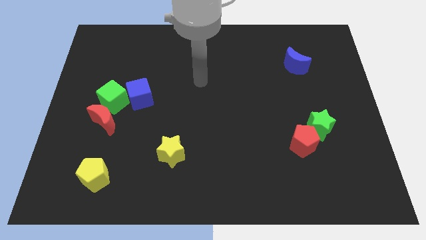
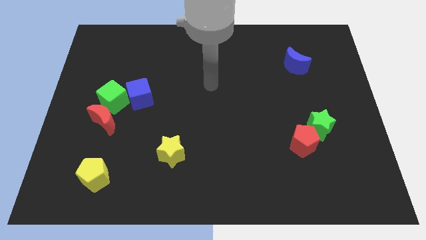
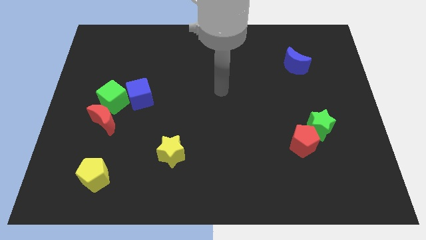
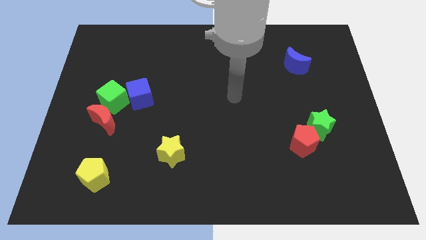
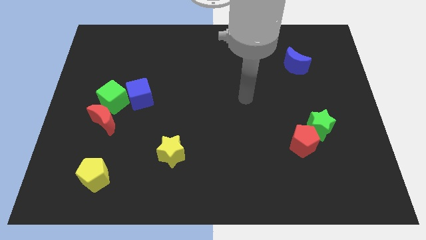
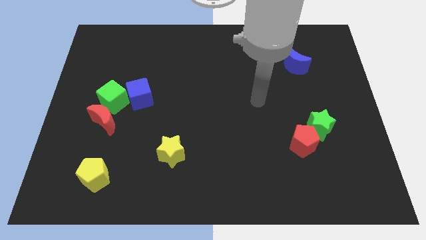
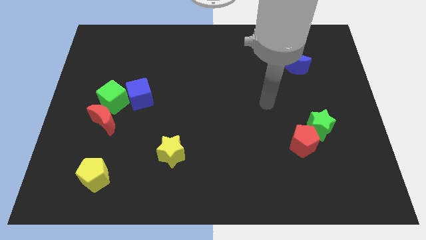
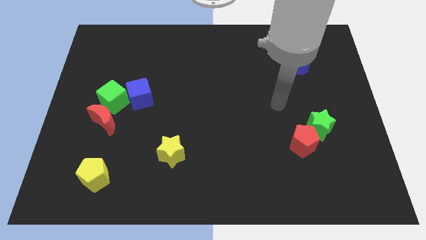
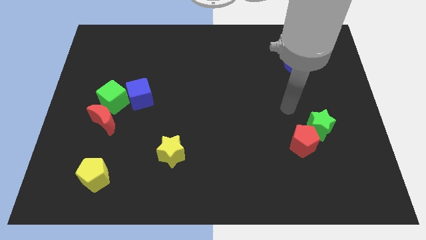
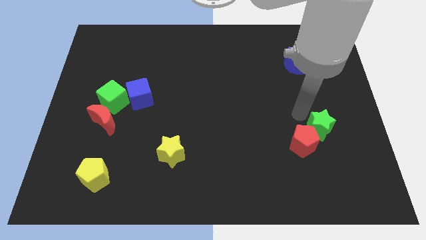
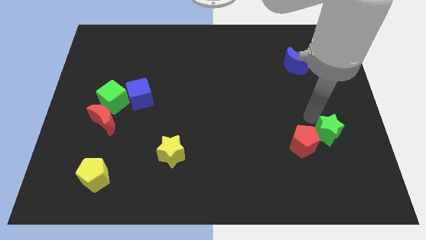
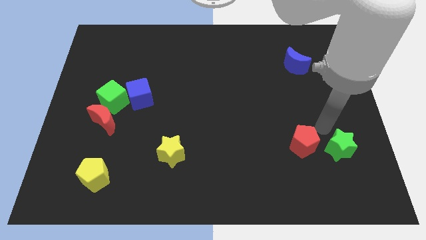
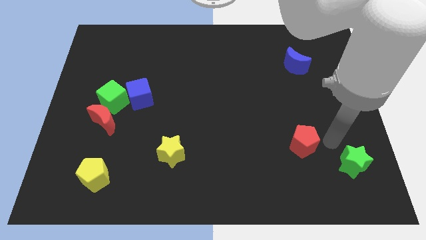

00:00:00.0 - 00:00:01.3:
pull the red pentagon apart from the green star

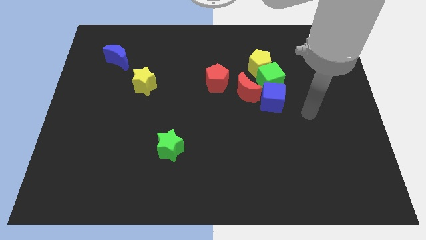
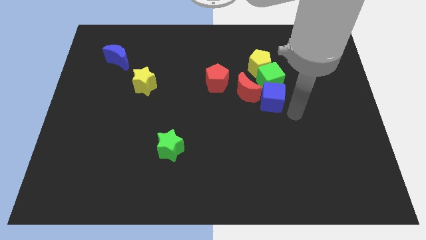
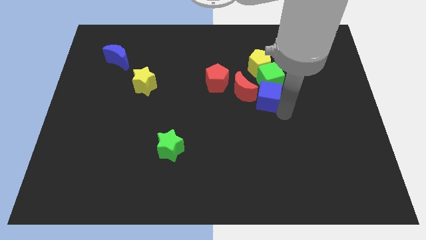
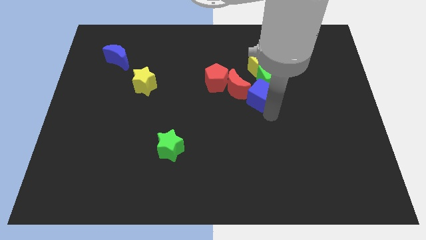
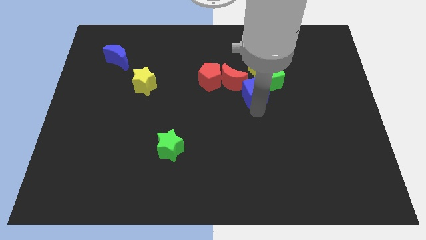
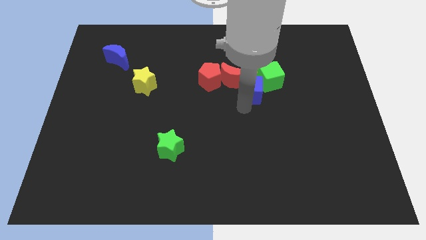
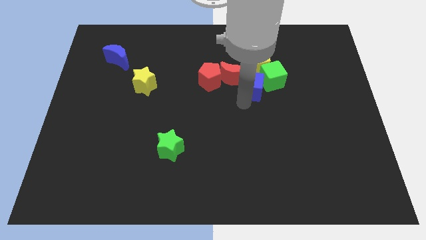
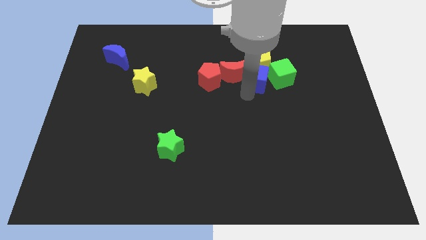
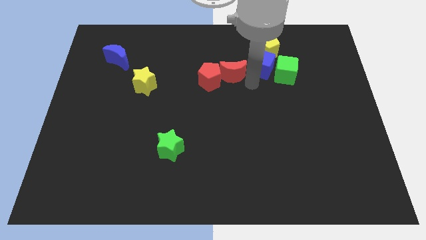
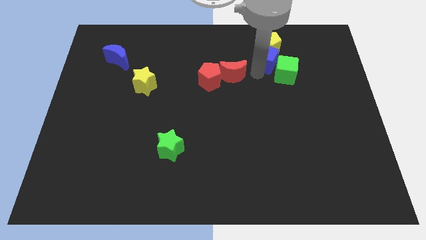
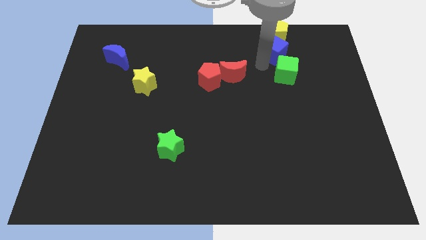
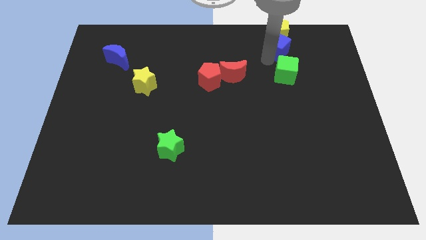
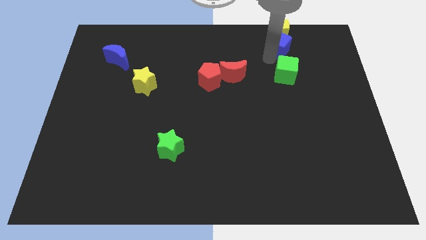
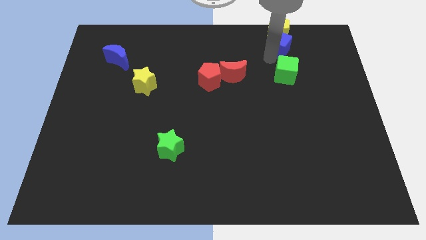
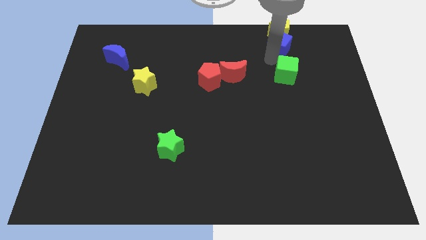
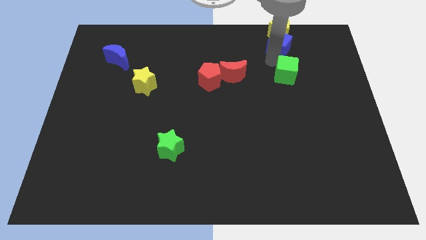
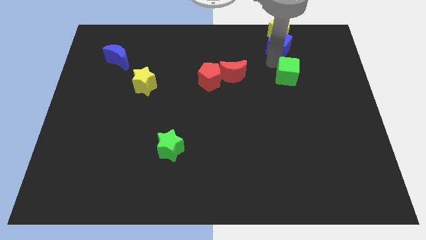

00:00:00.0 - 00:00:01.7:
pull the green cube apart from the yellow pentagon, blue cube, and red moon

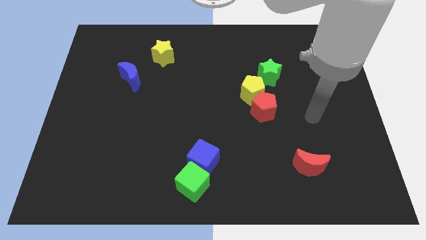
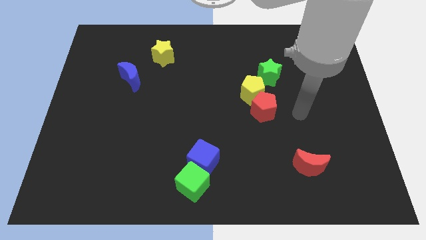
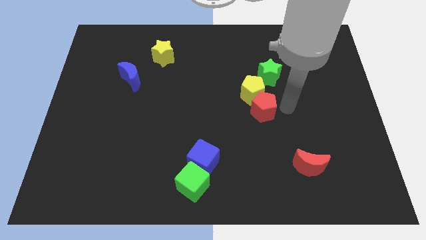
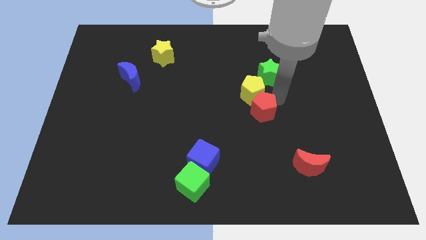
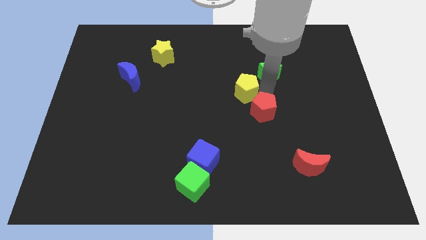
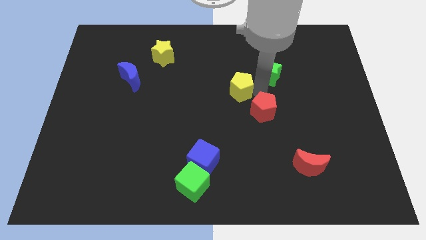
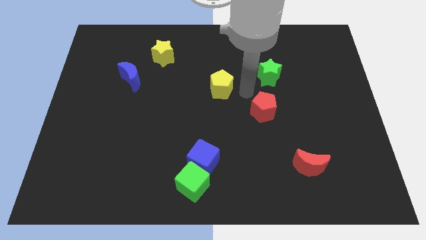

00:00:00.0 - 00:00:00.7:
move the red pentagon away from the yellow pentagon

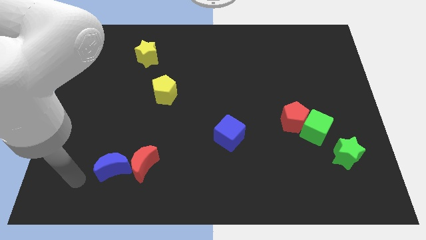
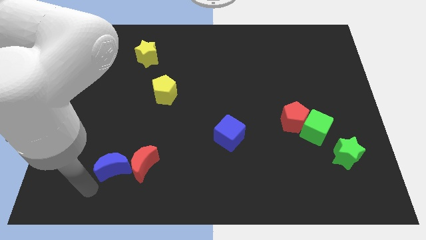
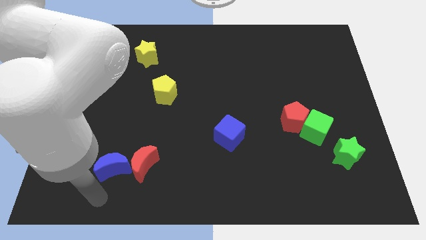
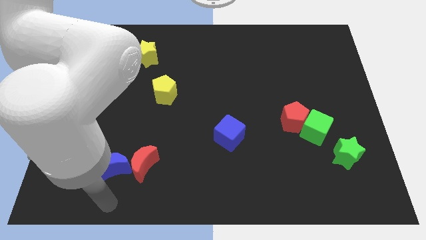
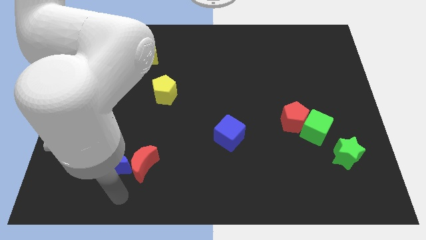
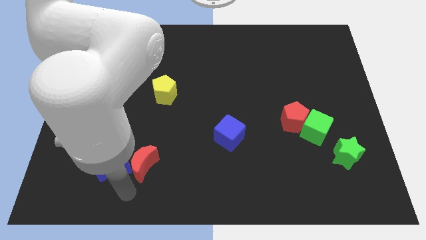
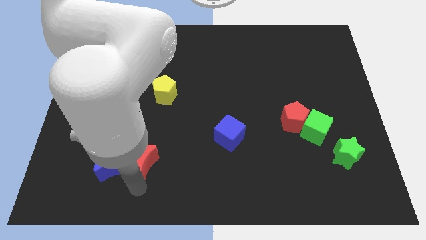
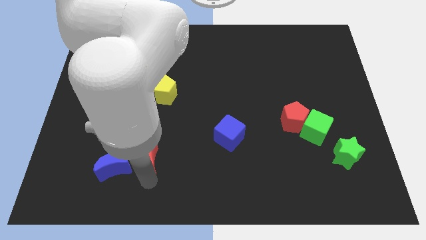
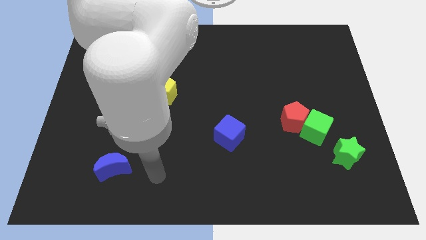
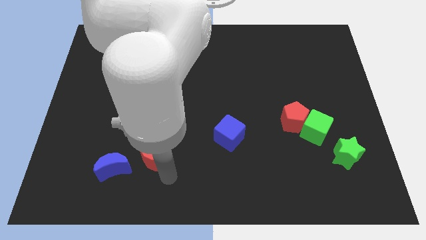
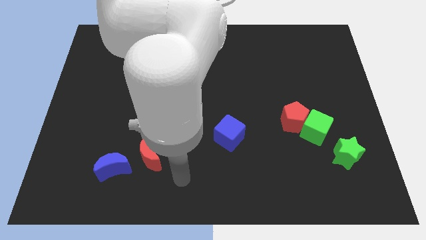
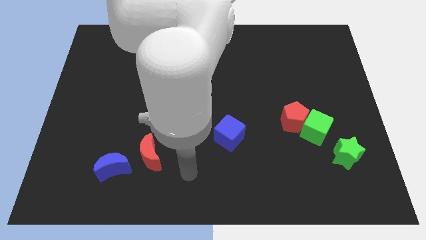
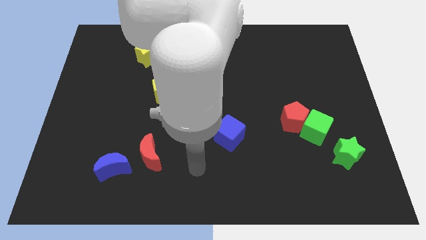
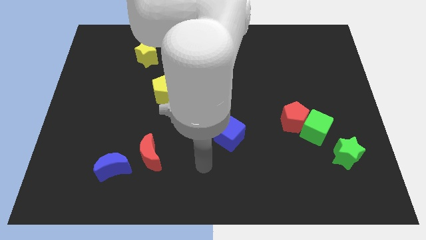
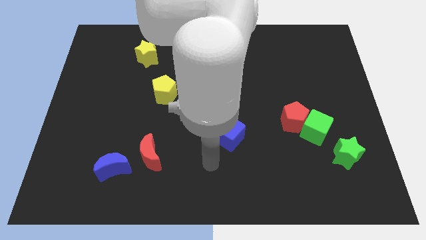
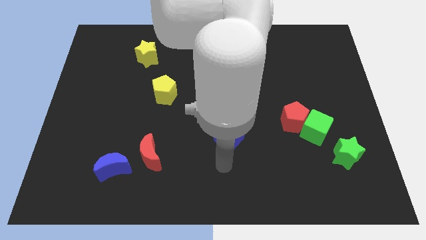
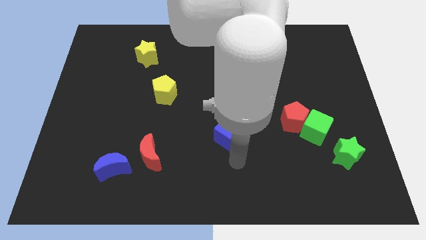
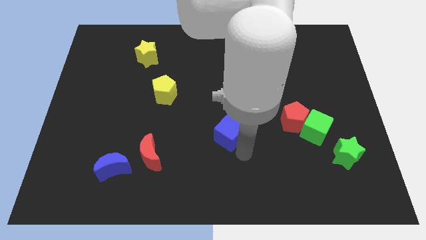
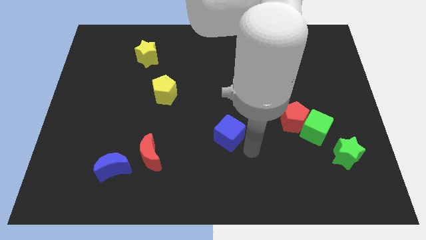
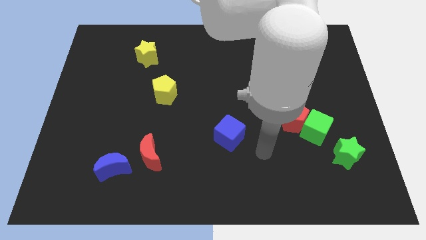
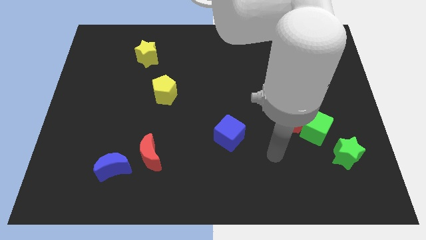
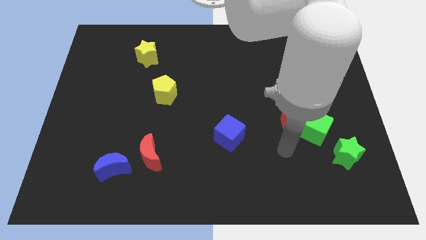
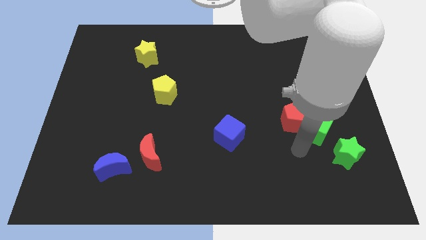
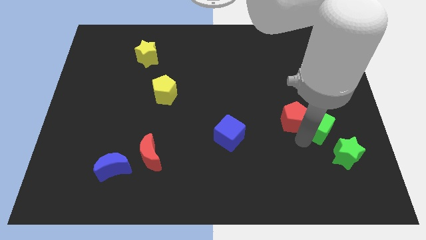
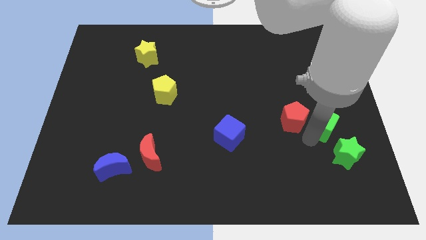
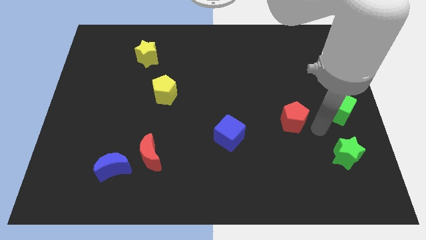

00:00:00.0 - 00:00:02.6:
pull the red pentagon apart from the green cube

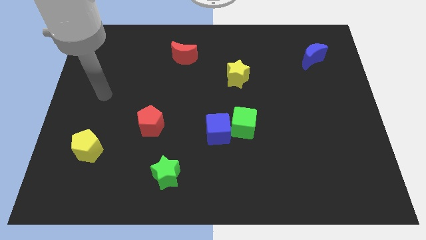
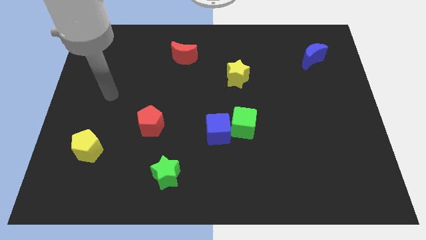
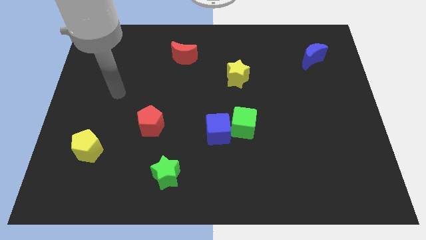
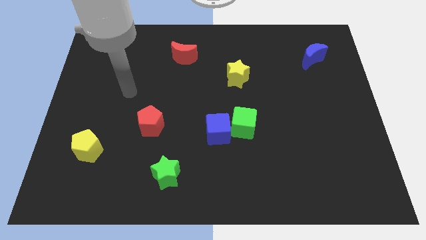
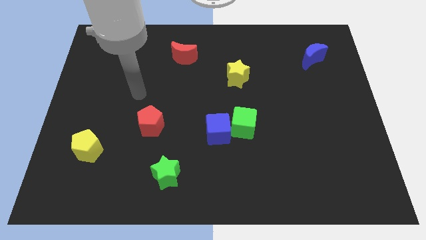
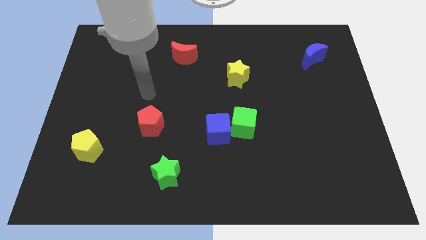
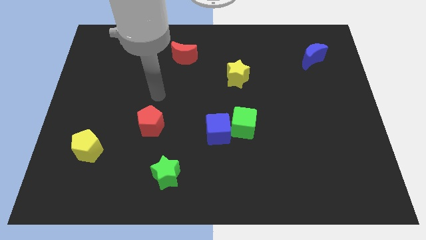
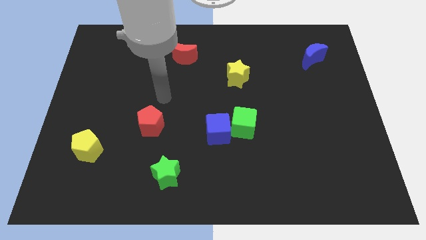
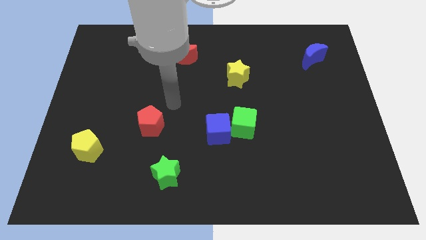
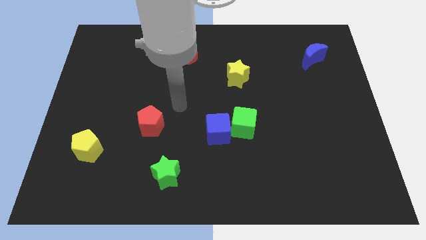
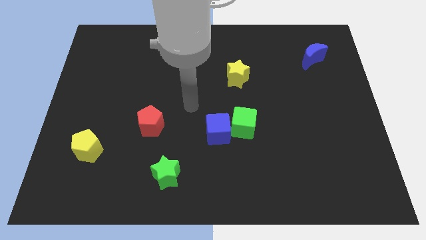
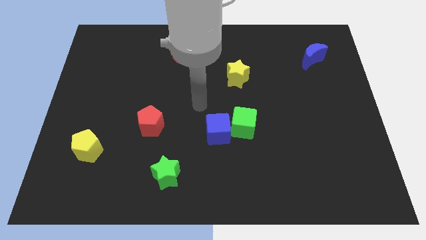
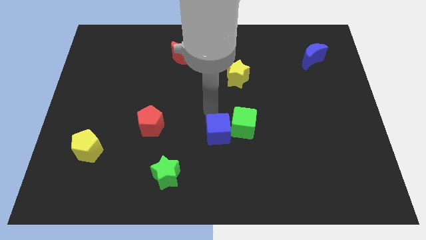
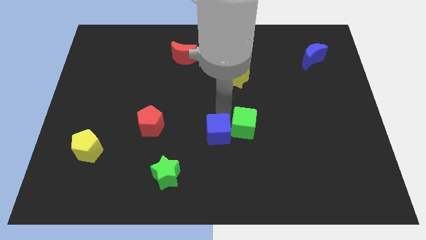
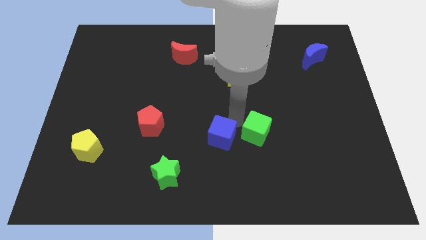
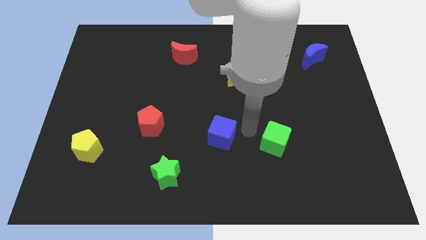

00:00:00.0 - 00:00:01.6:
separate the blue cube from the green cube

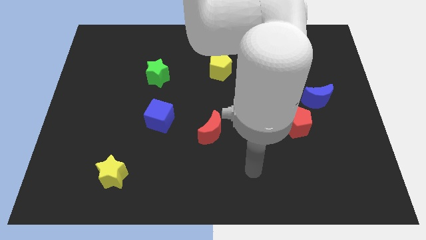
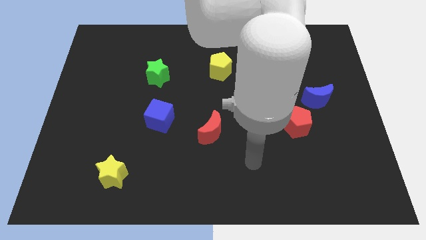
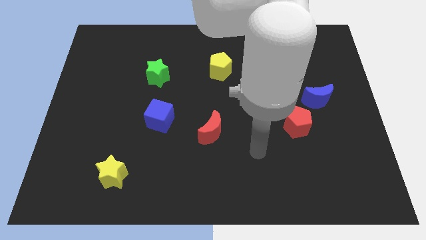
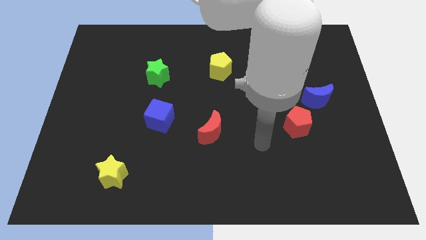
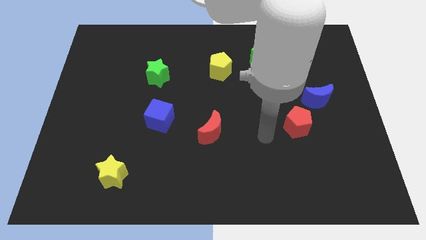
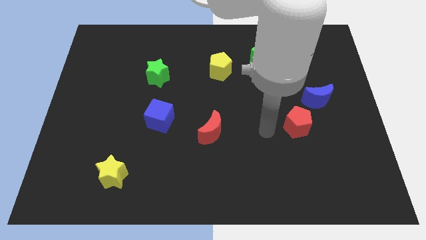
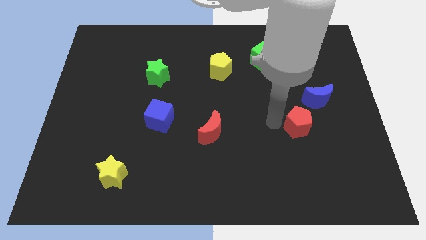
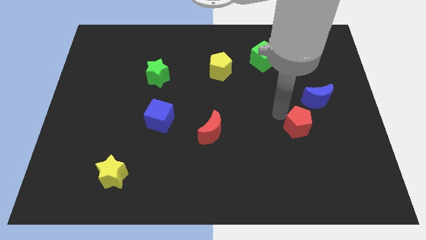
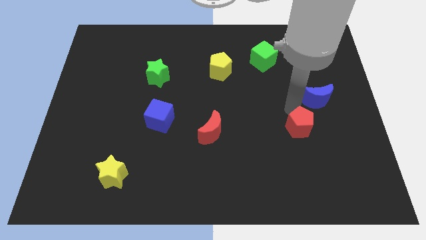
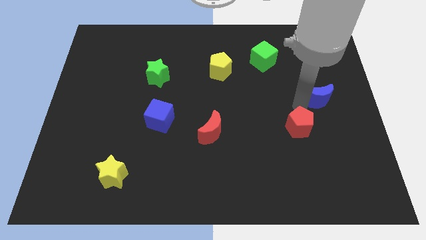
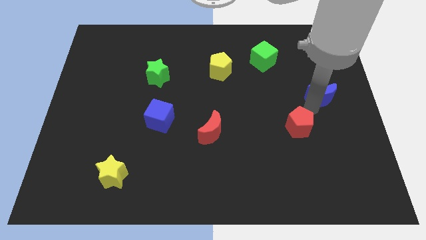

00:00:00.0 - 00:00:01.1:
separate the red pentagon from the blue moon

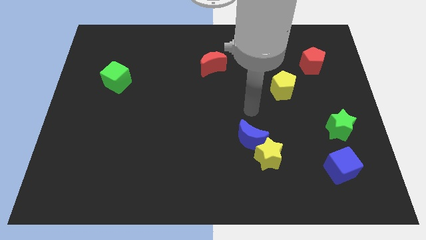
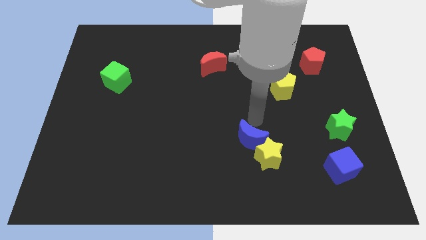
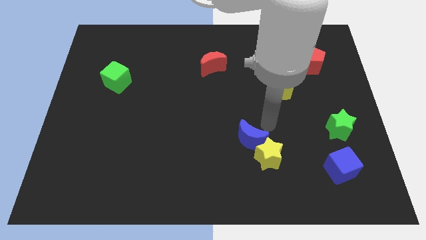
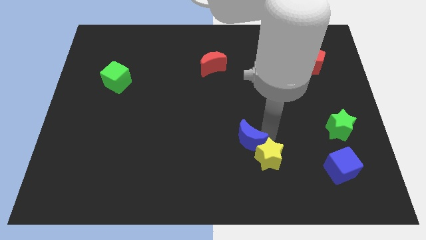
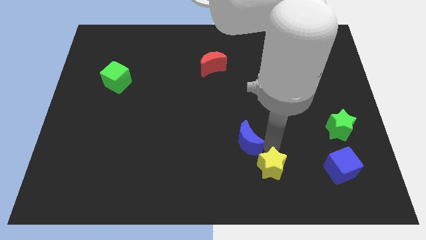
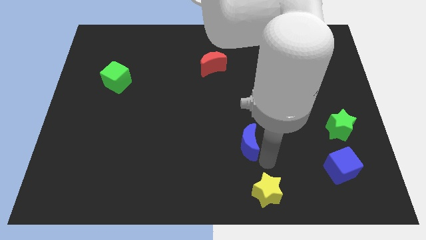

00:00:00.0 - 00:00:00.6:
pull the blue moon apart from the yellow star
